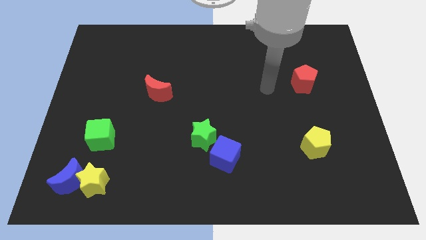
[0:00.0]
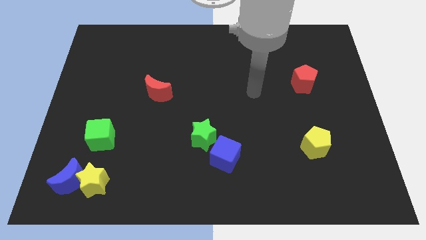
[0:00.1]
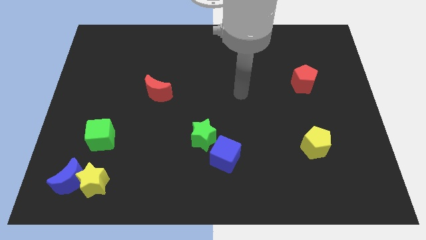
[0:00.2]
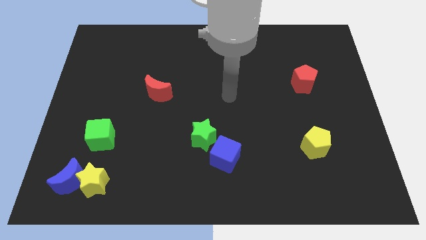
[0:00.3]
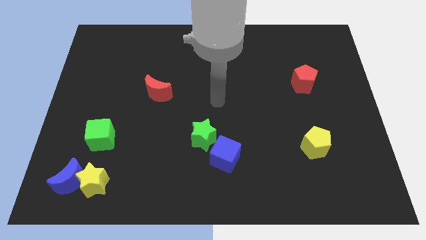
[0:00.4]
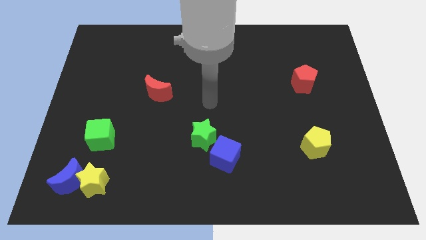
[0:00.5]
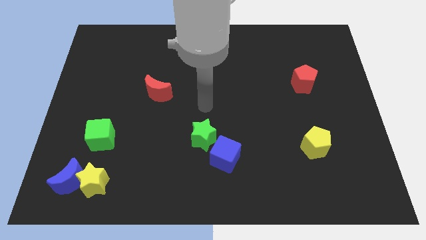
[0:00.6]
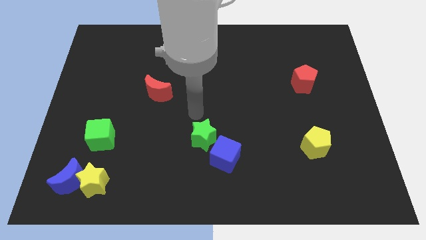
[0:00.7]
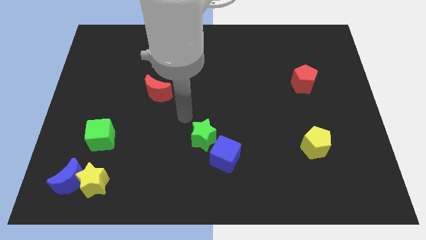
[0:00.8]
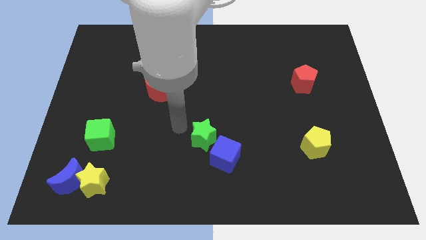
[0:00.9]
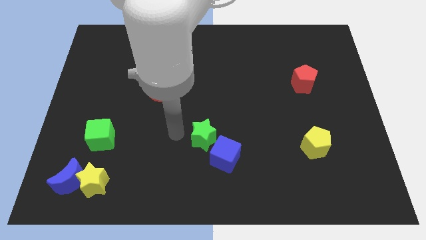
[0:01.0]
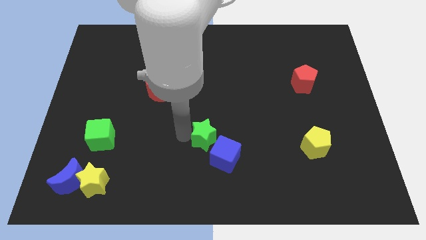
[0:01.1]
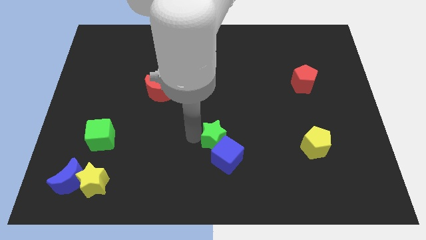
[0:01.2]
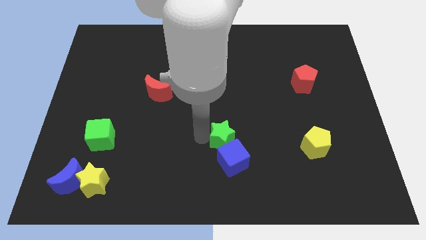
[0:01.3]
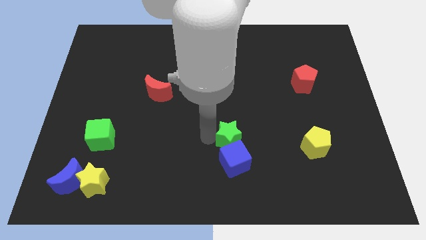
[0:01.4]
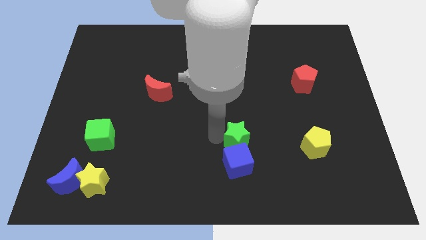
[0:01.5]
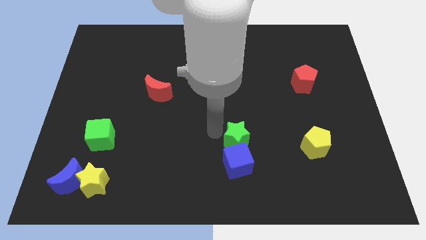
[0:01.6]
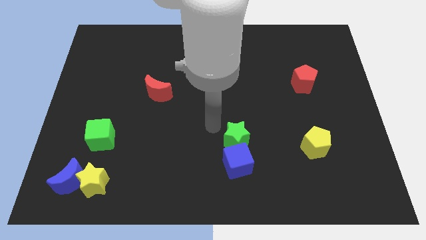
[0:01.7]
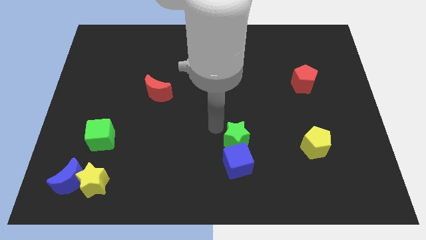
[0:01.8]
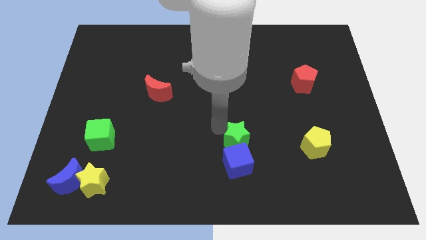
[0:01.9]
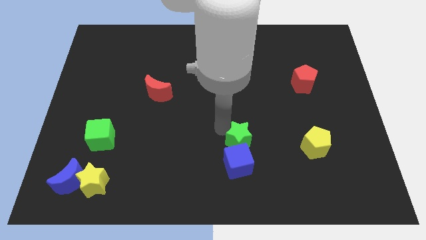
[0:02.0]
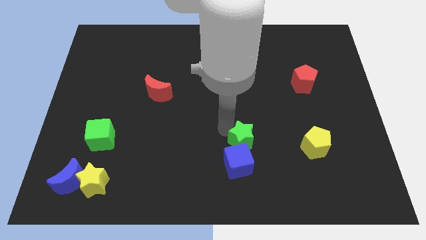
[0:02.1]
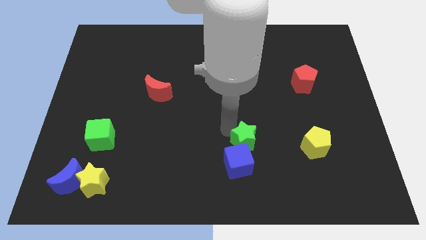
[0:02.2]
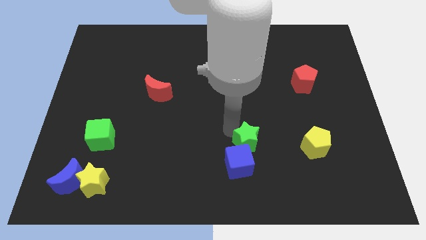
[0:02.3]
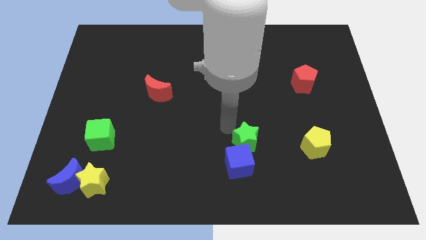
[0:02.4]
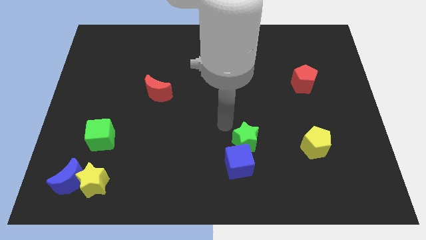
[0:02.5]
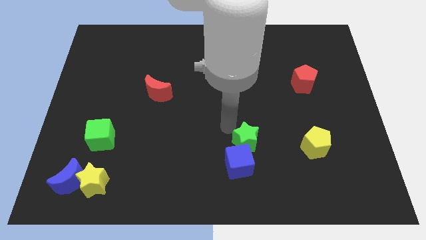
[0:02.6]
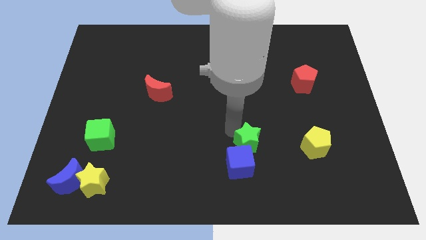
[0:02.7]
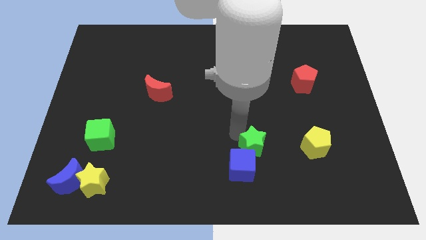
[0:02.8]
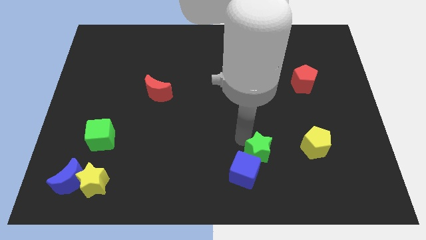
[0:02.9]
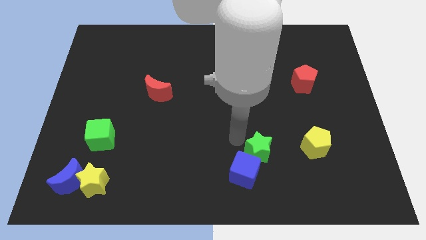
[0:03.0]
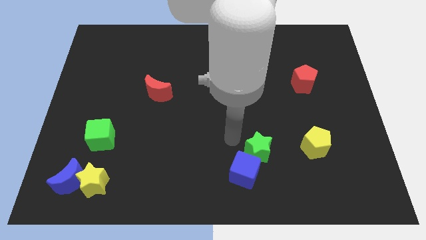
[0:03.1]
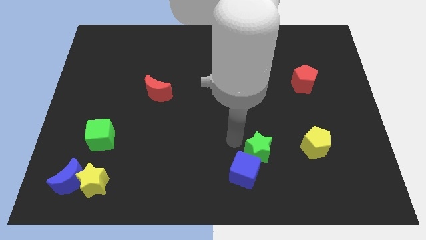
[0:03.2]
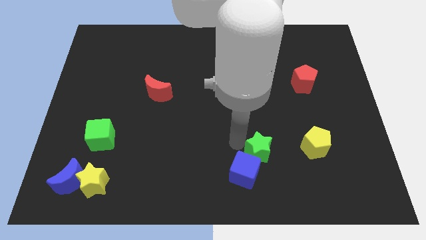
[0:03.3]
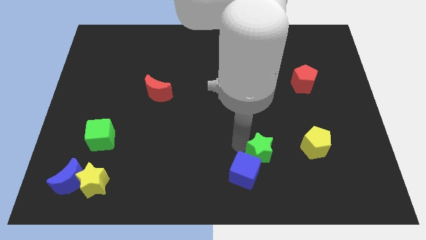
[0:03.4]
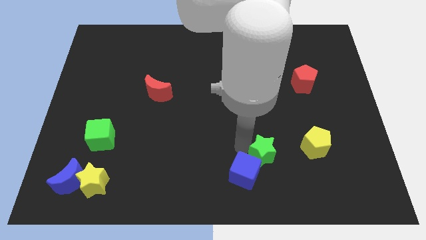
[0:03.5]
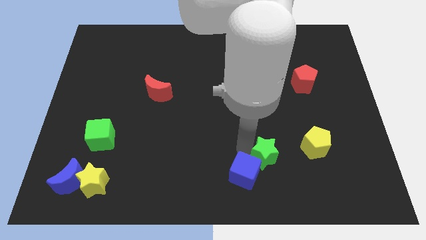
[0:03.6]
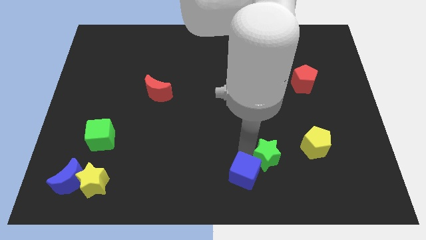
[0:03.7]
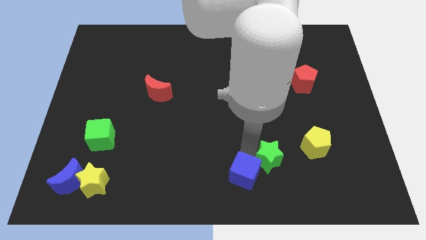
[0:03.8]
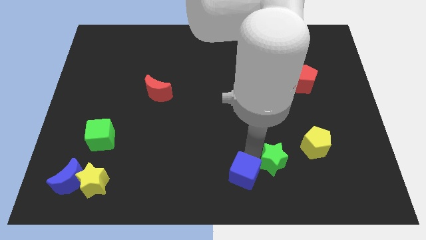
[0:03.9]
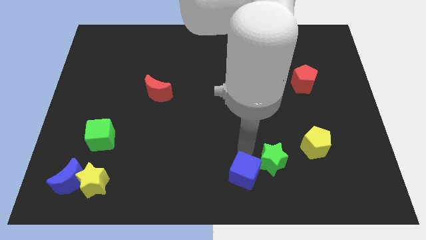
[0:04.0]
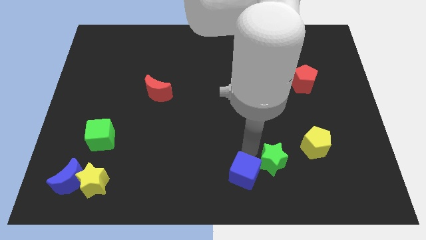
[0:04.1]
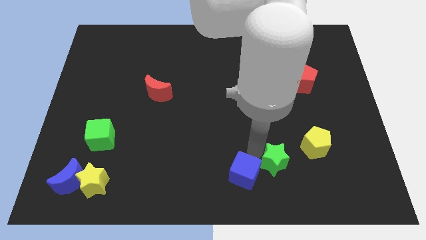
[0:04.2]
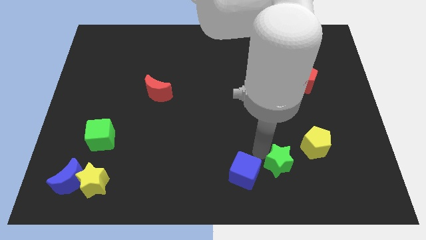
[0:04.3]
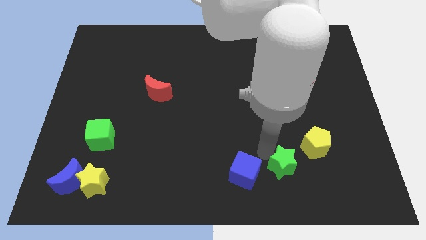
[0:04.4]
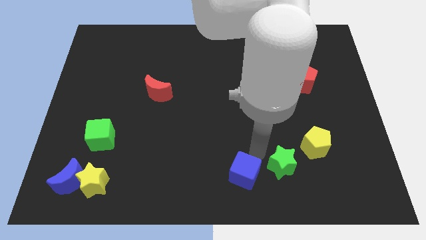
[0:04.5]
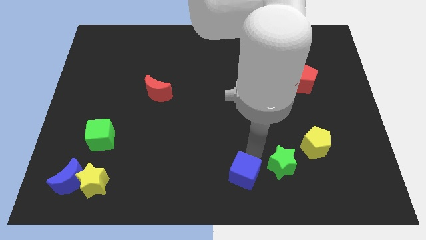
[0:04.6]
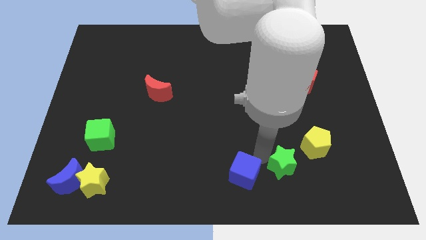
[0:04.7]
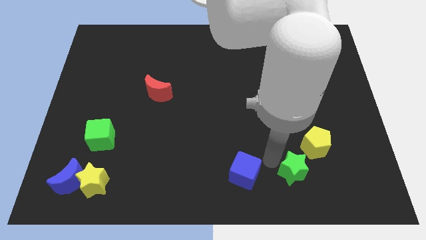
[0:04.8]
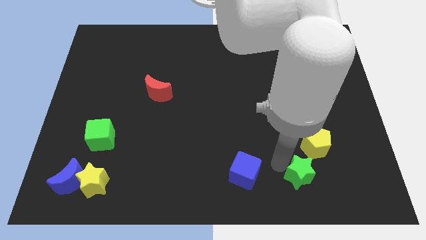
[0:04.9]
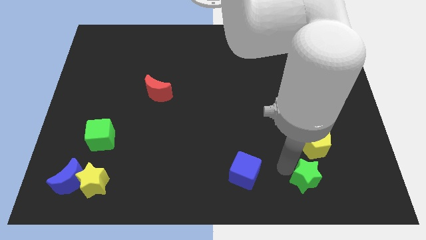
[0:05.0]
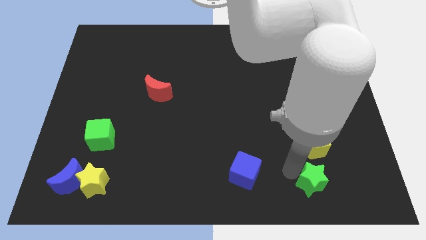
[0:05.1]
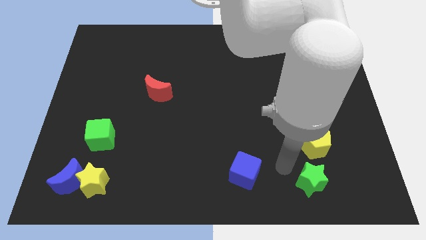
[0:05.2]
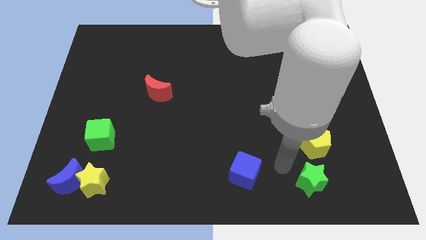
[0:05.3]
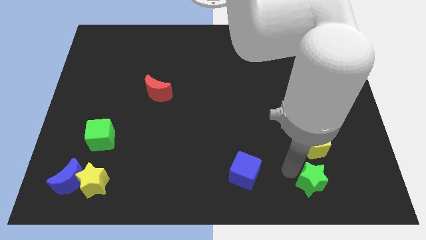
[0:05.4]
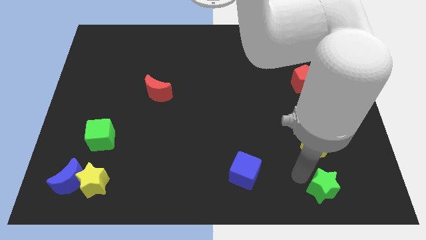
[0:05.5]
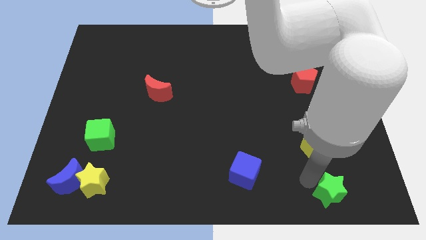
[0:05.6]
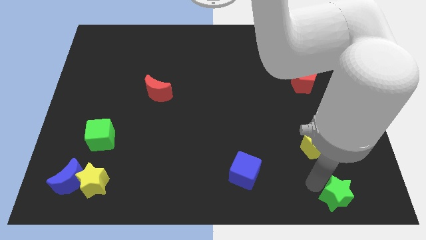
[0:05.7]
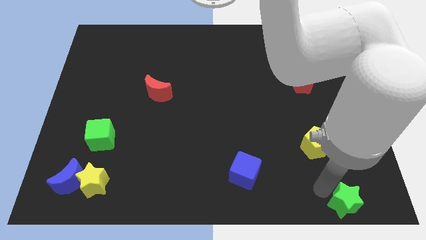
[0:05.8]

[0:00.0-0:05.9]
slide the green star to the bottom right corner
